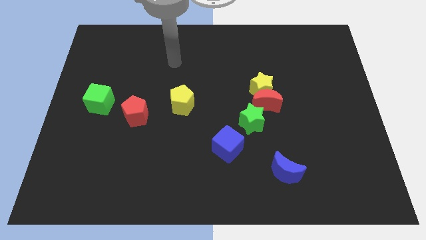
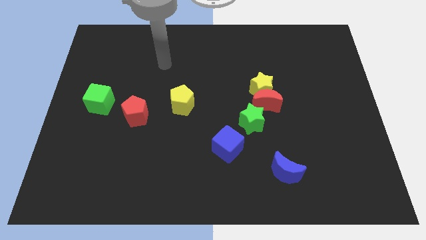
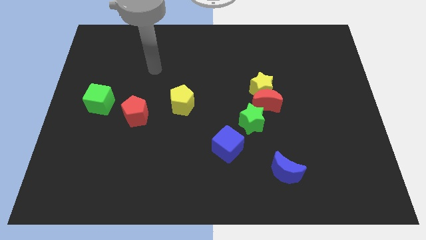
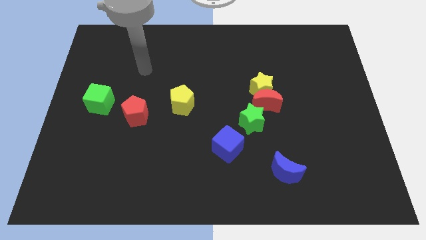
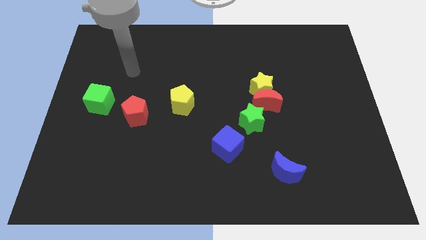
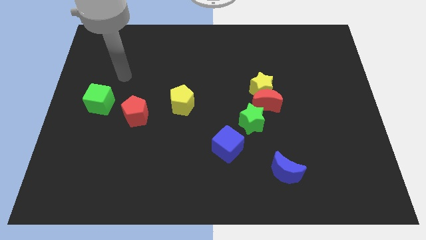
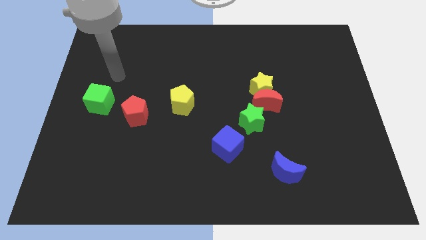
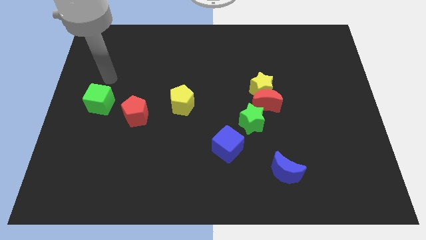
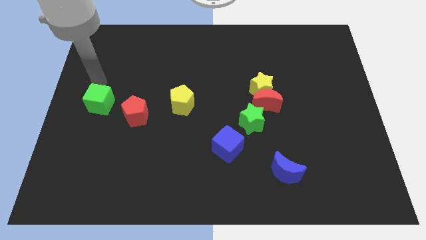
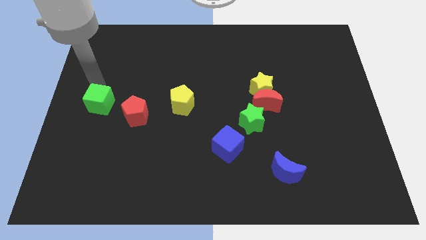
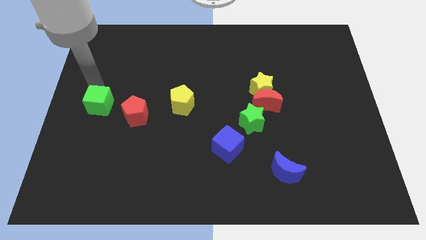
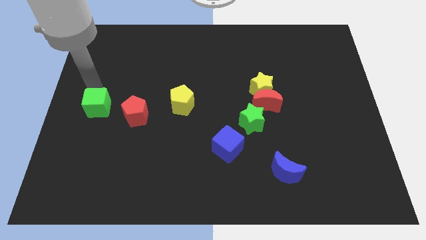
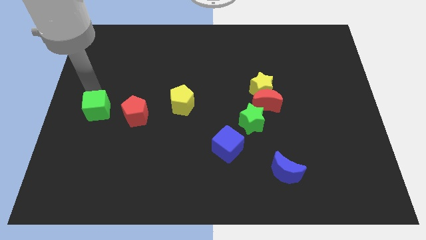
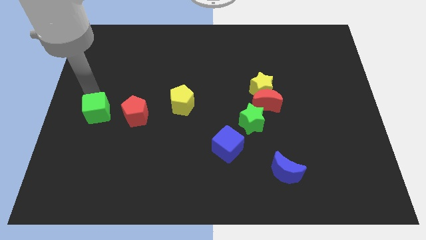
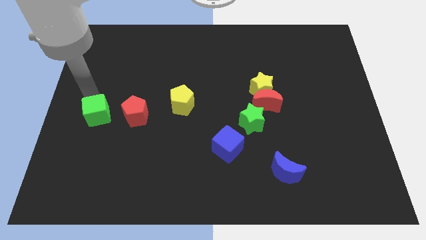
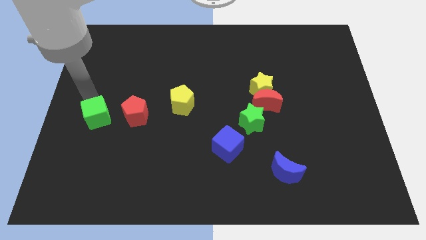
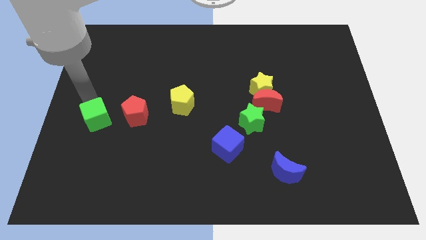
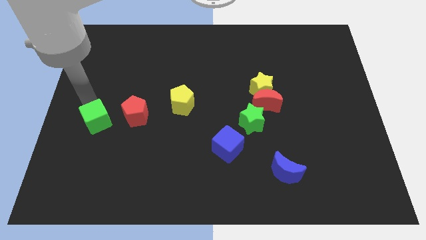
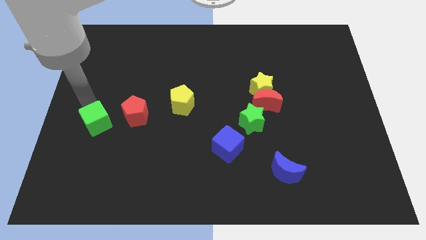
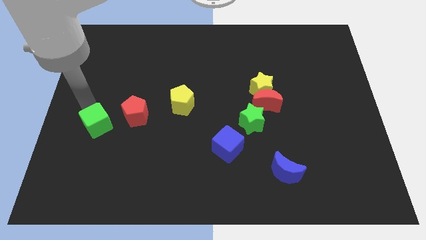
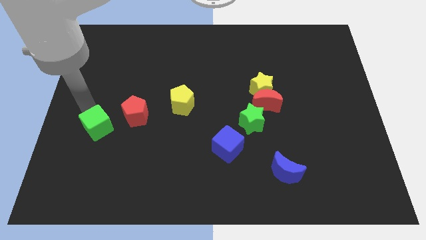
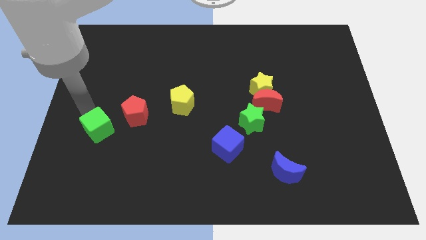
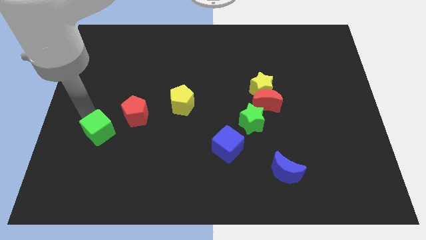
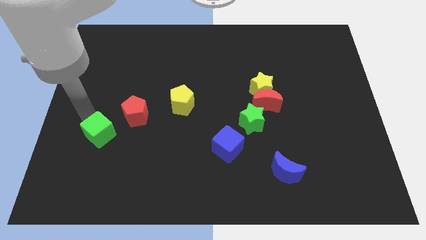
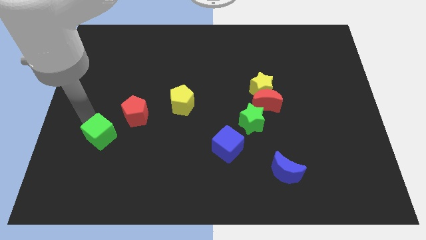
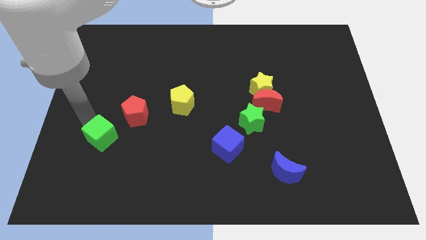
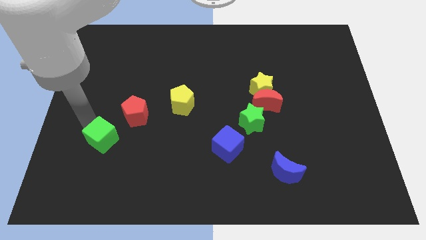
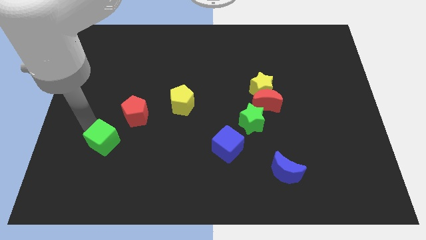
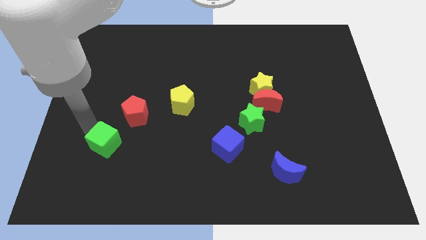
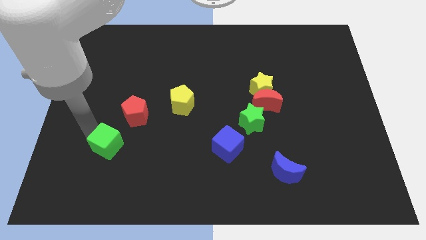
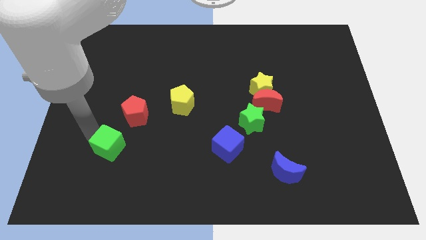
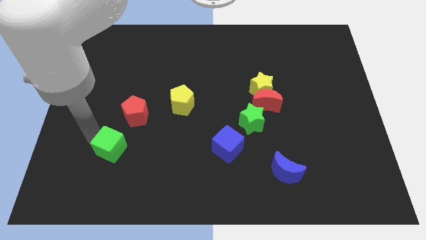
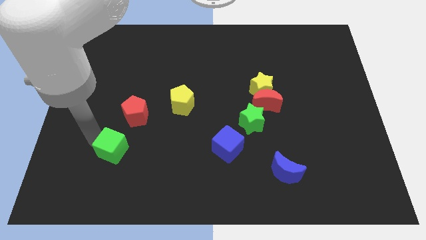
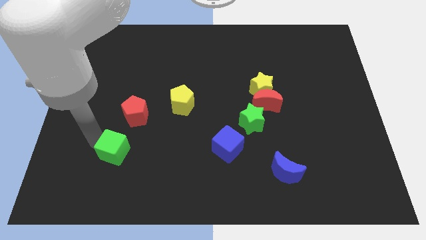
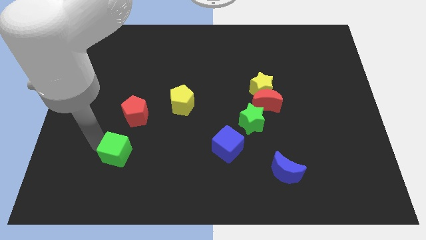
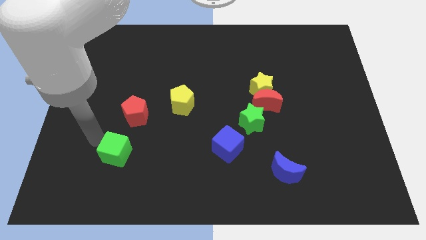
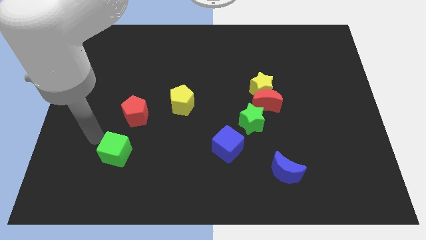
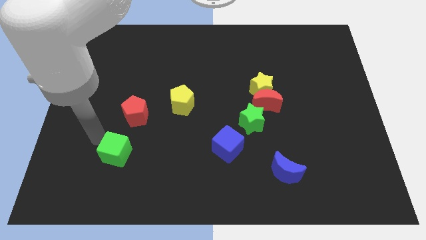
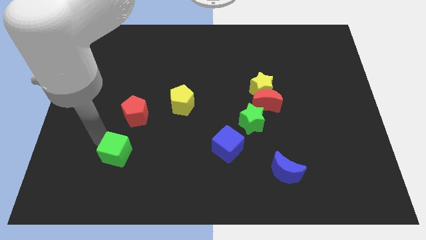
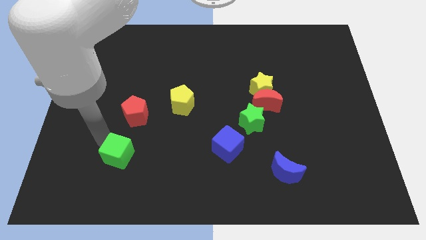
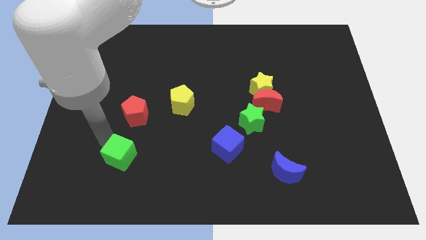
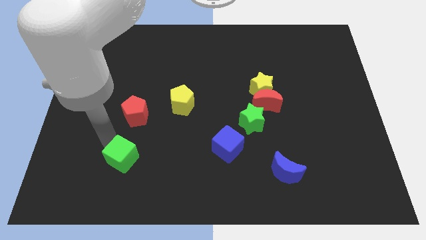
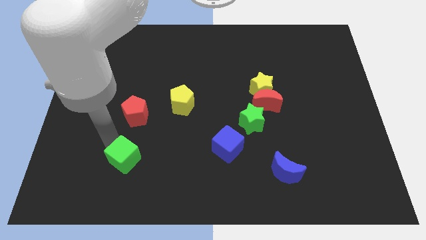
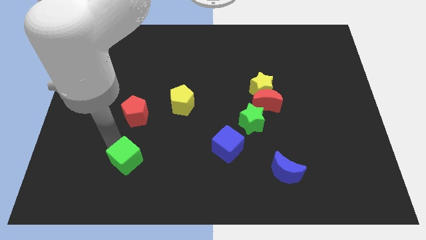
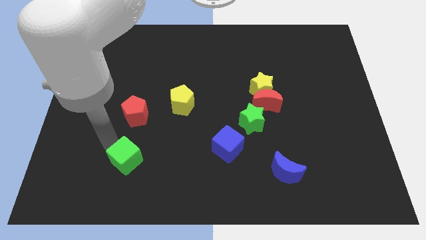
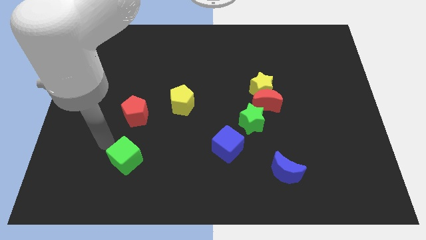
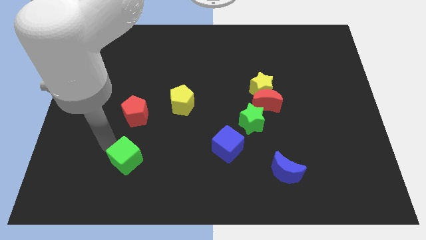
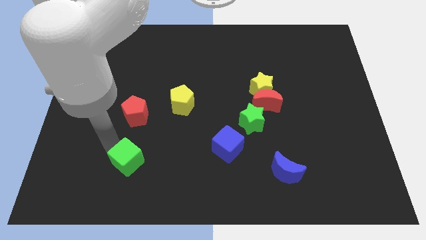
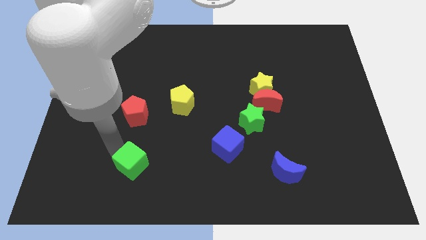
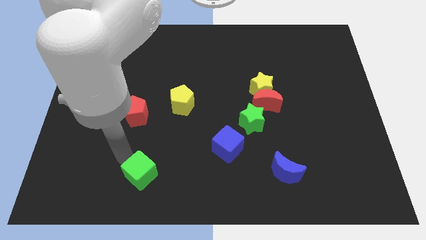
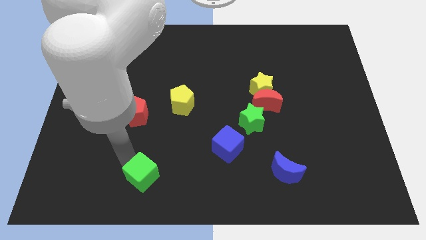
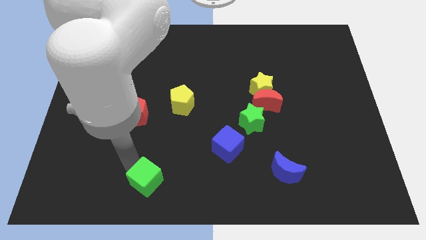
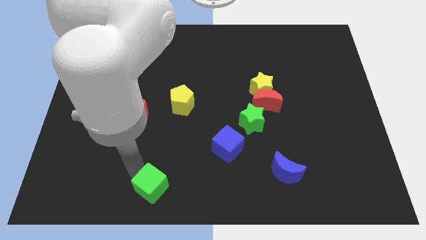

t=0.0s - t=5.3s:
slide the green cube to the bottom side

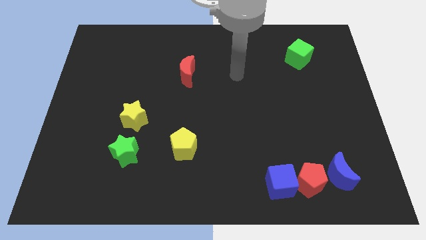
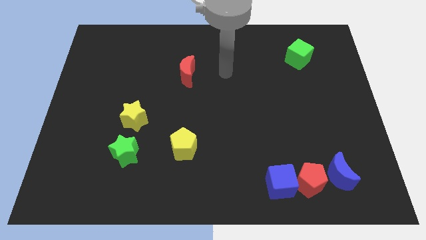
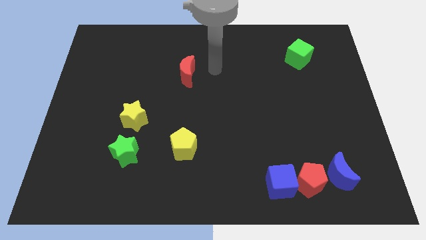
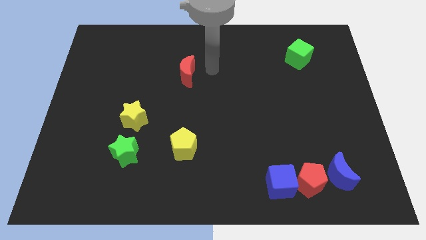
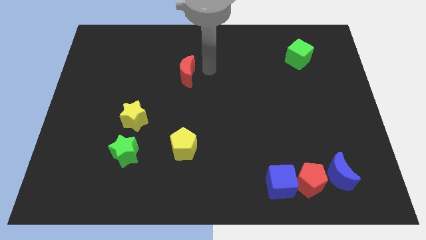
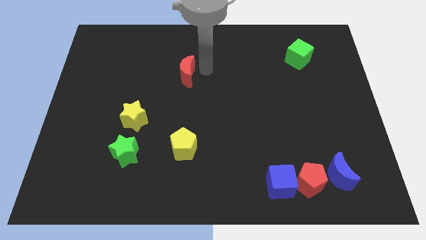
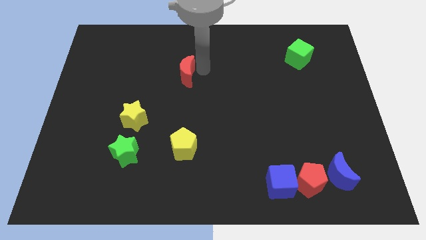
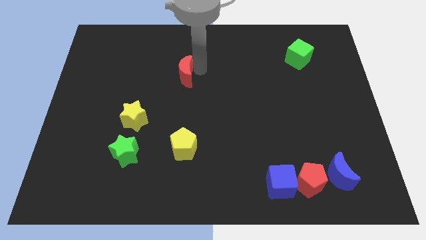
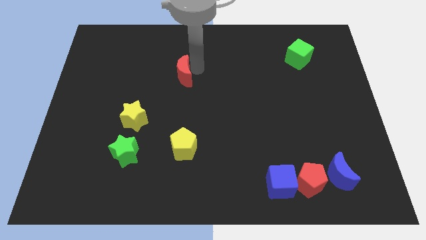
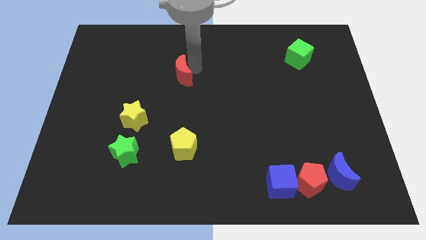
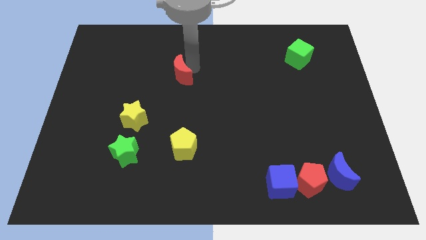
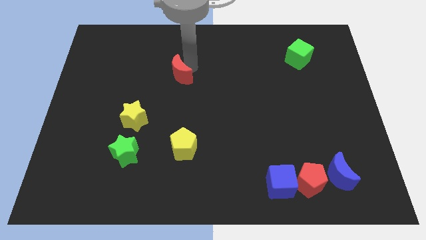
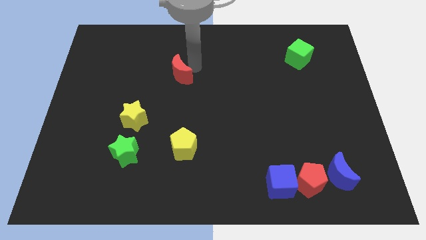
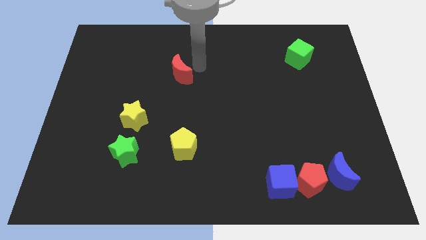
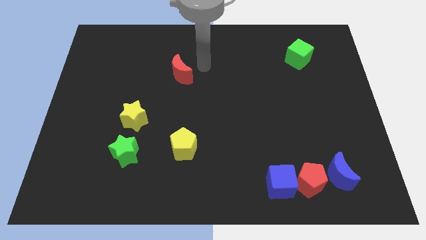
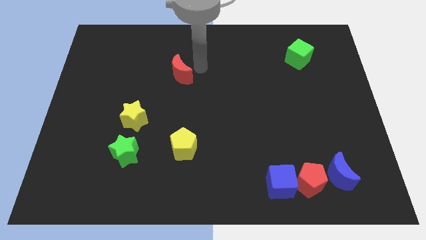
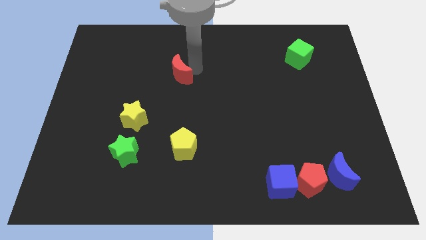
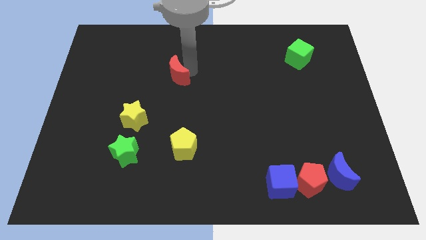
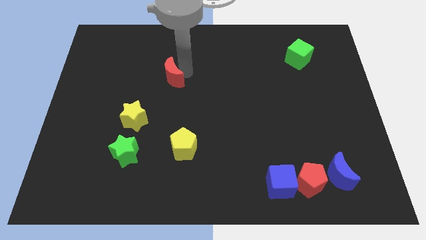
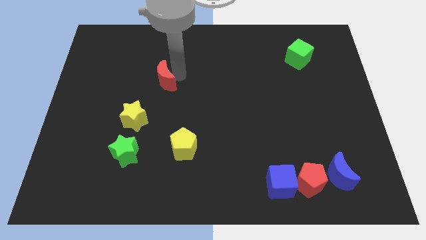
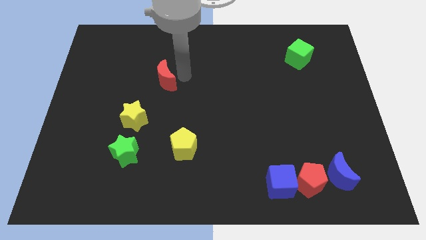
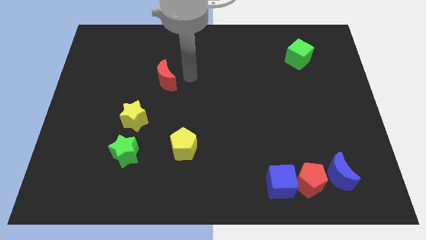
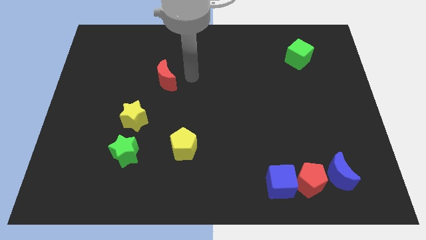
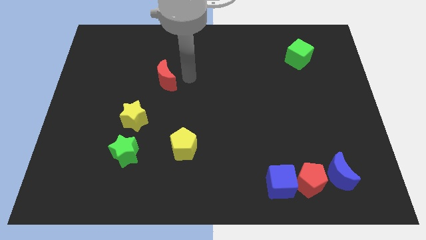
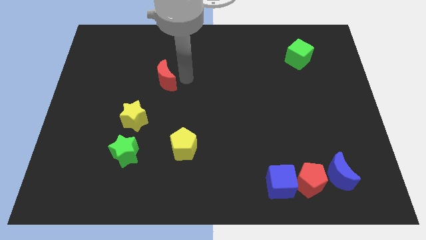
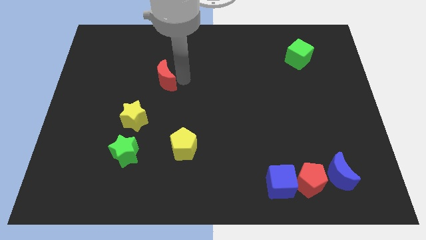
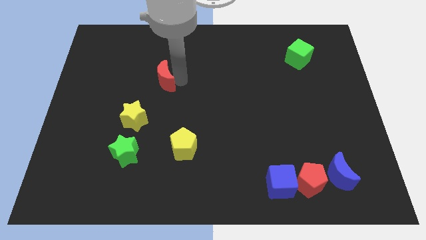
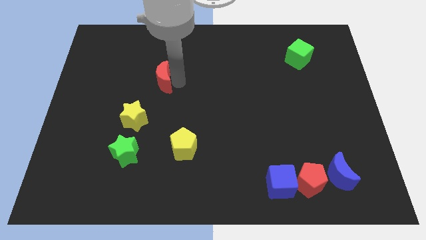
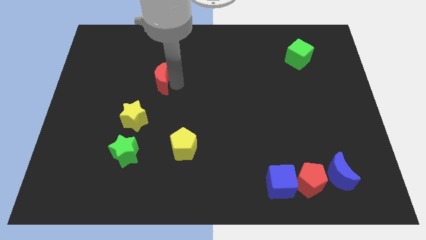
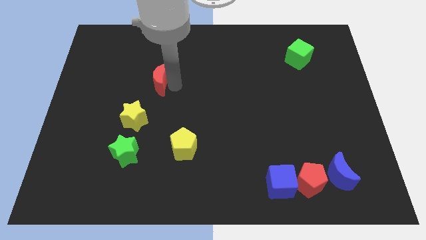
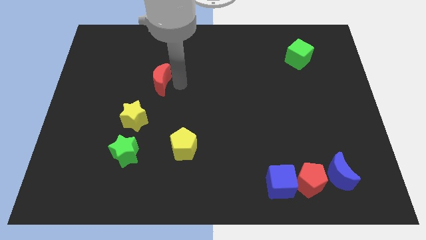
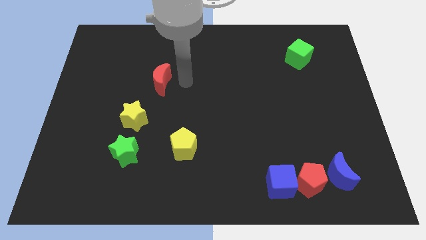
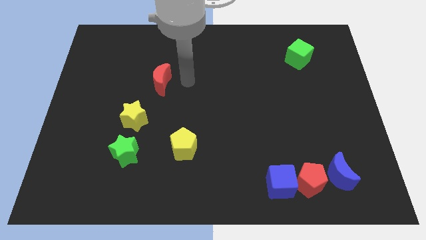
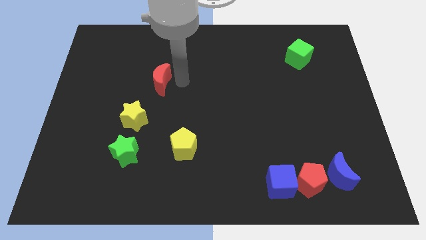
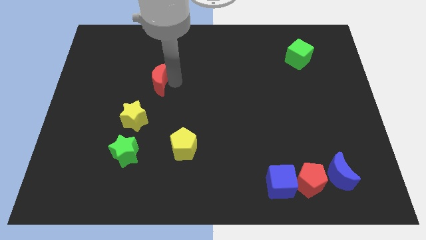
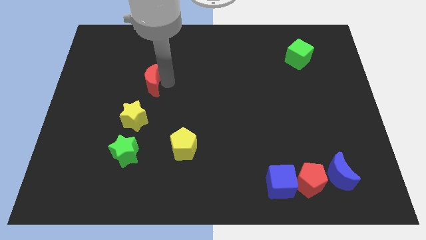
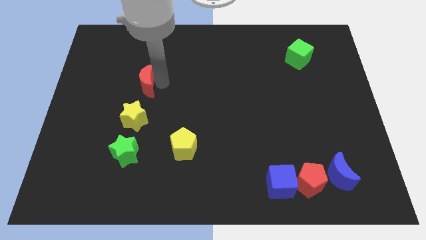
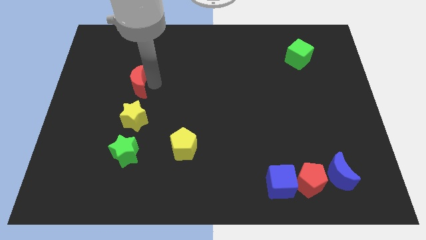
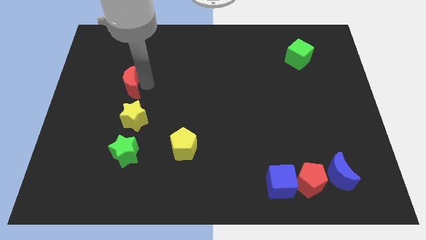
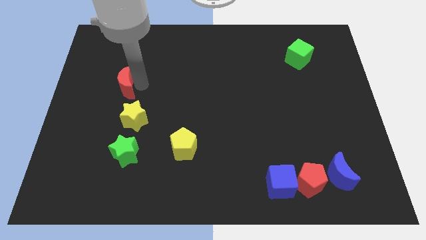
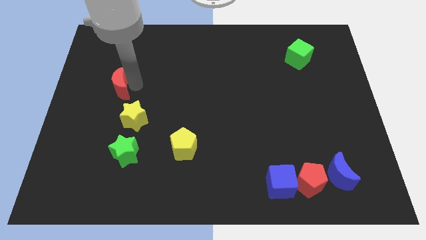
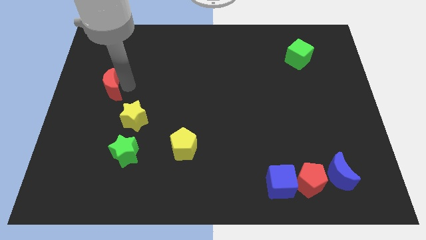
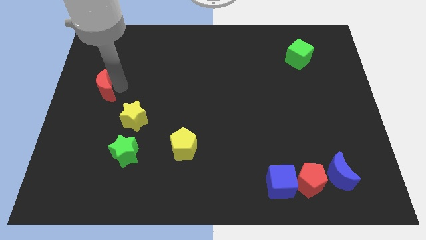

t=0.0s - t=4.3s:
push the red moon to the center left
